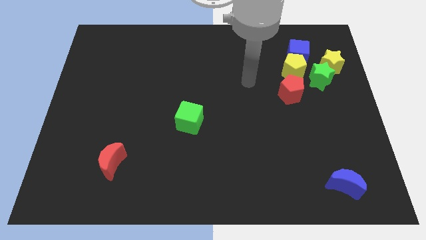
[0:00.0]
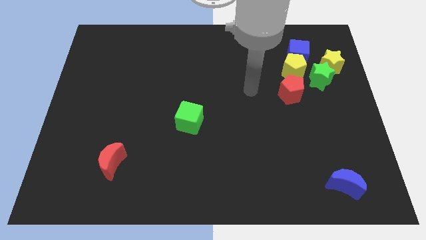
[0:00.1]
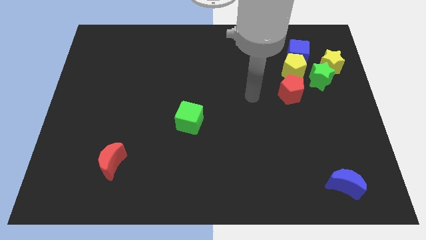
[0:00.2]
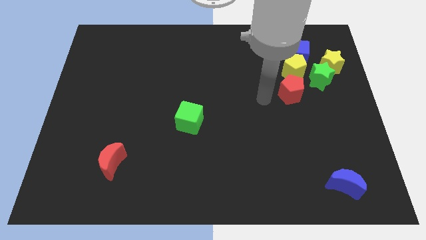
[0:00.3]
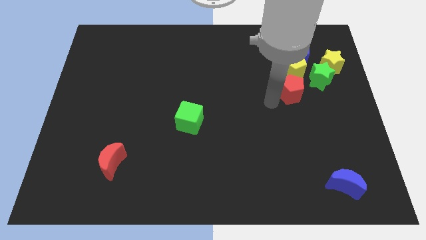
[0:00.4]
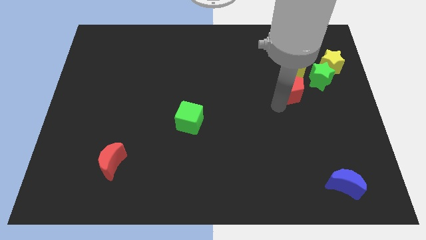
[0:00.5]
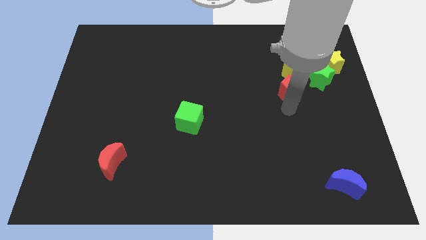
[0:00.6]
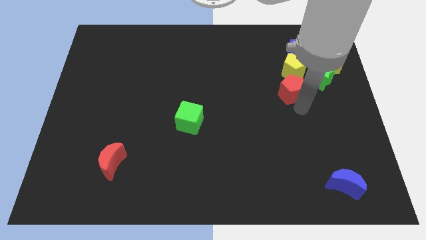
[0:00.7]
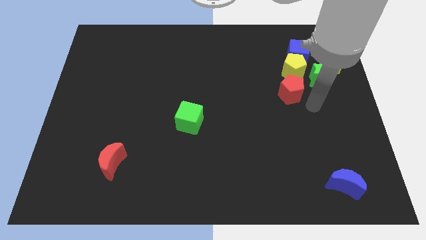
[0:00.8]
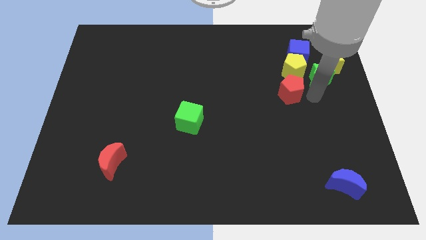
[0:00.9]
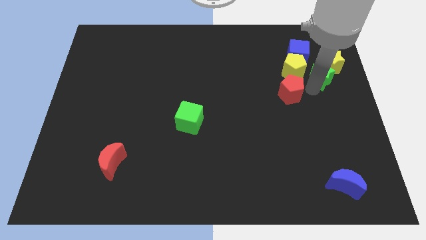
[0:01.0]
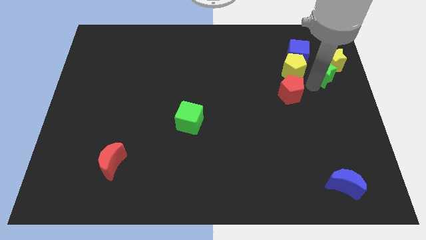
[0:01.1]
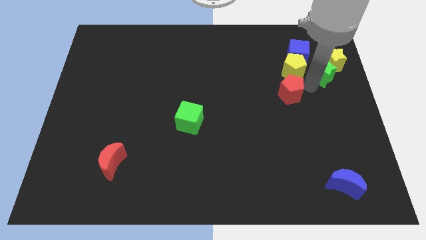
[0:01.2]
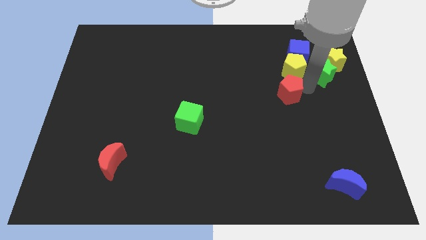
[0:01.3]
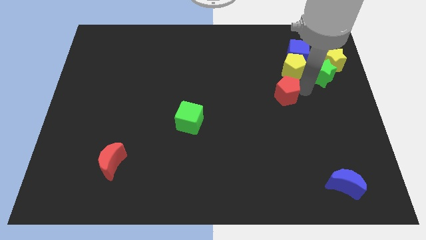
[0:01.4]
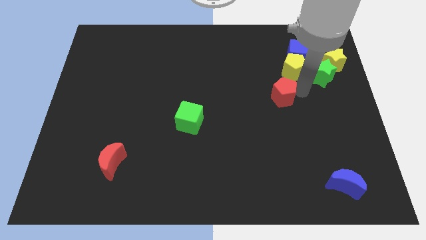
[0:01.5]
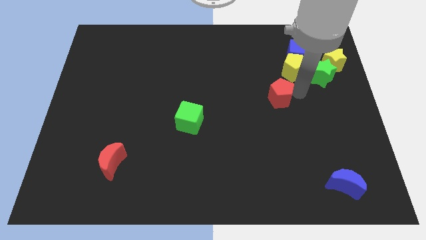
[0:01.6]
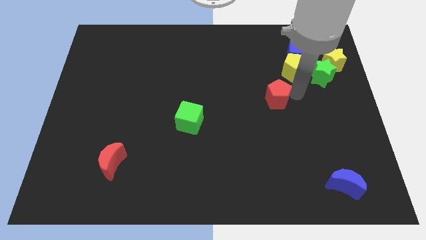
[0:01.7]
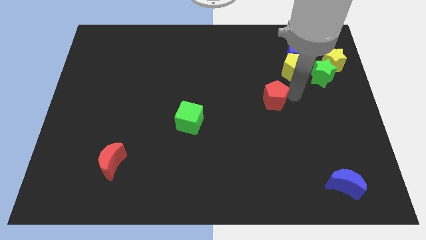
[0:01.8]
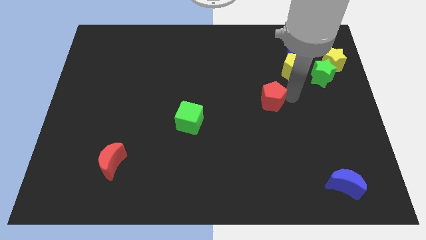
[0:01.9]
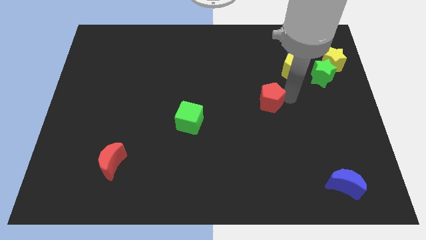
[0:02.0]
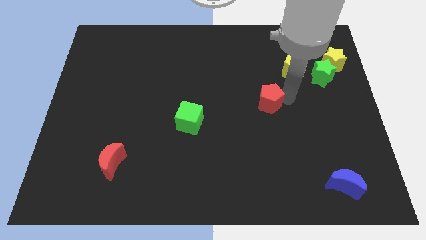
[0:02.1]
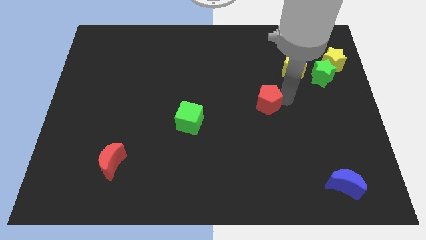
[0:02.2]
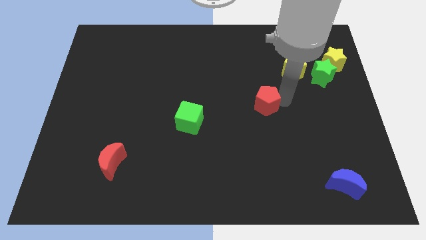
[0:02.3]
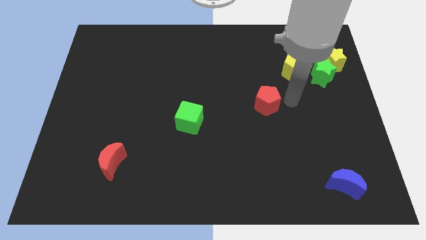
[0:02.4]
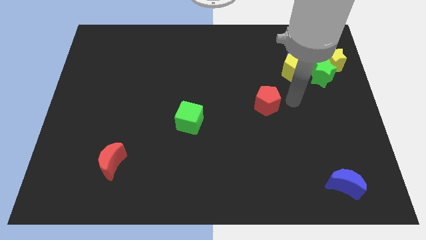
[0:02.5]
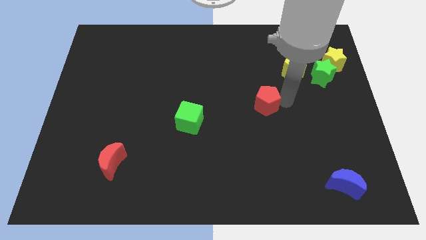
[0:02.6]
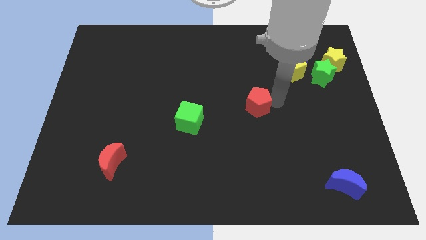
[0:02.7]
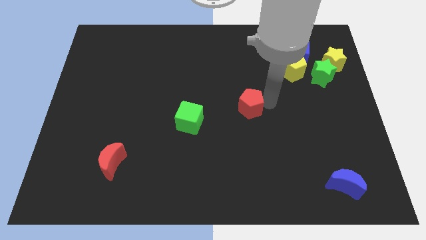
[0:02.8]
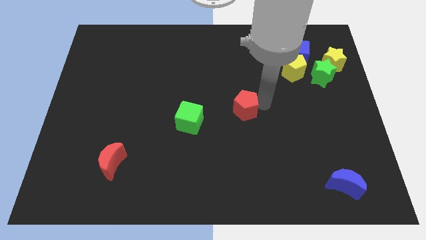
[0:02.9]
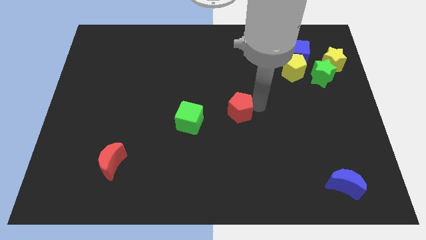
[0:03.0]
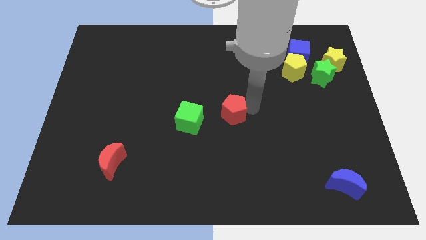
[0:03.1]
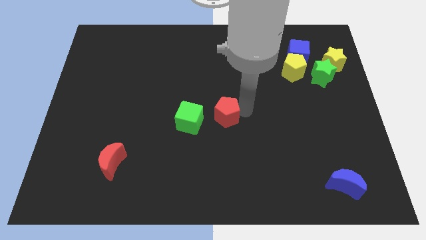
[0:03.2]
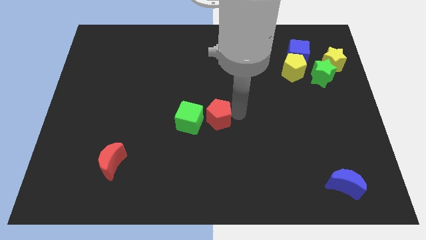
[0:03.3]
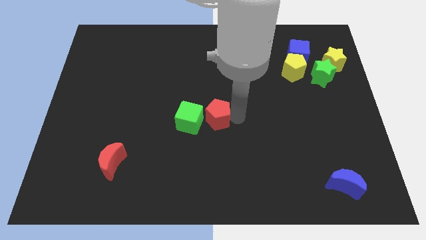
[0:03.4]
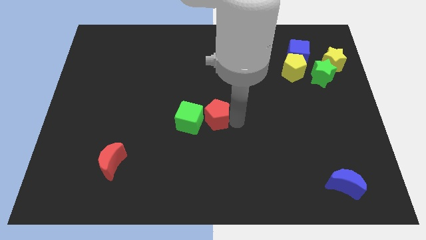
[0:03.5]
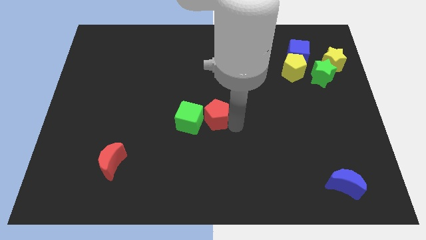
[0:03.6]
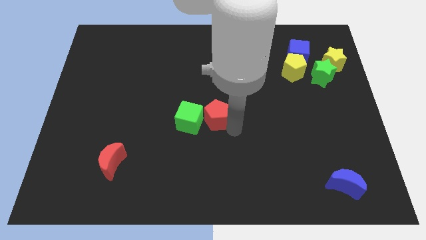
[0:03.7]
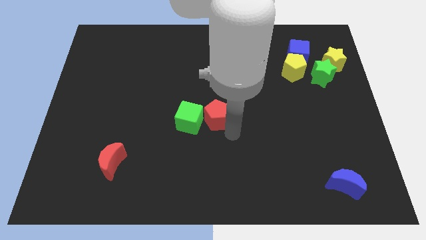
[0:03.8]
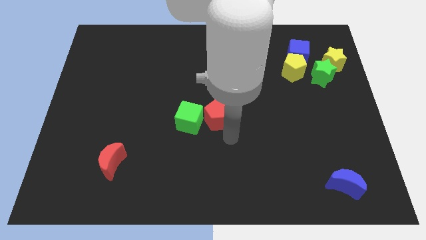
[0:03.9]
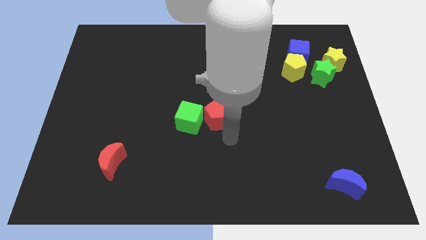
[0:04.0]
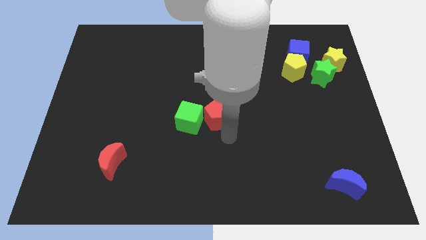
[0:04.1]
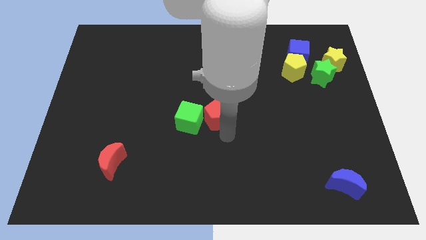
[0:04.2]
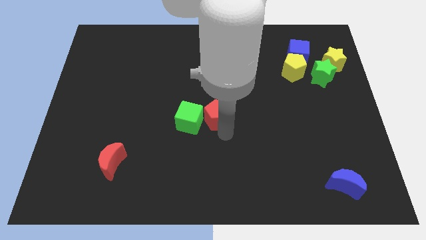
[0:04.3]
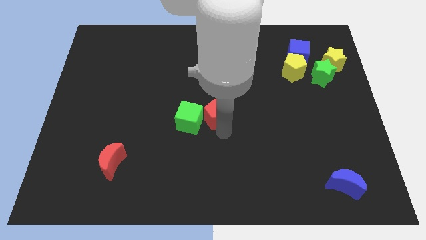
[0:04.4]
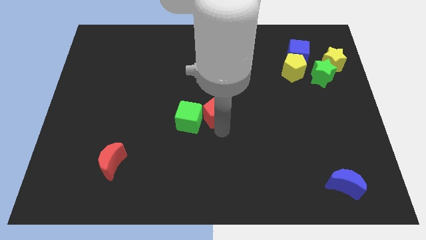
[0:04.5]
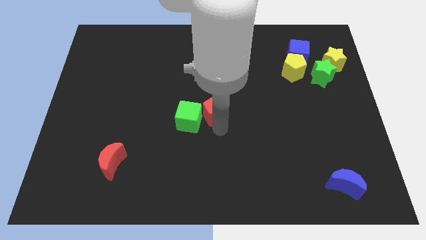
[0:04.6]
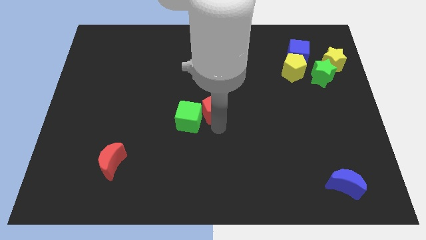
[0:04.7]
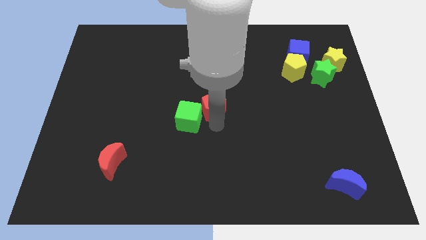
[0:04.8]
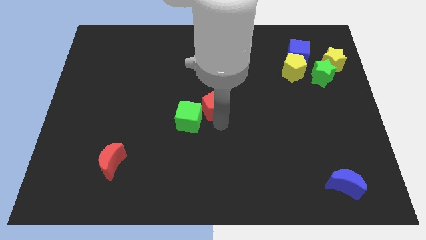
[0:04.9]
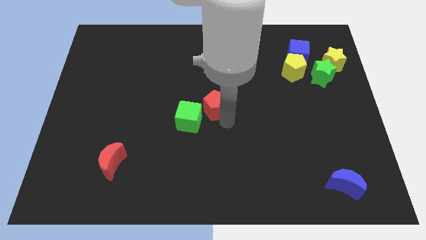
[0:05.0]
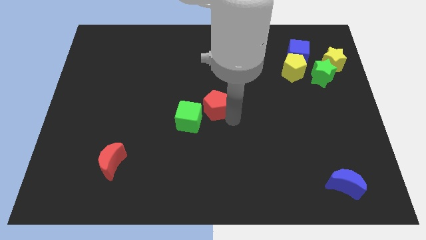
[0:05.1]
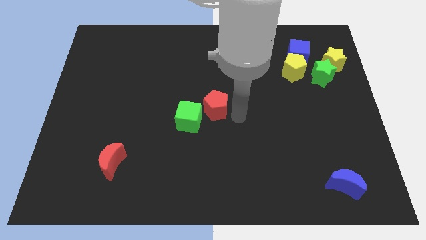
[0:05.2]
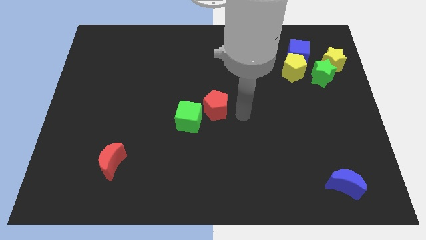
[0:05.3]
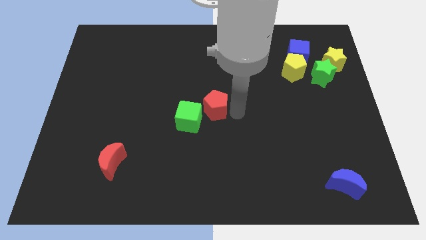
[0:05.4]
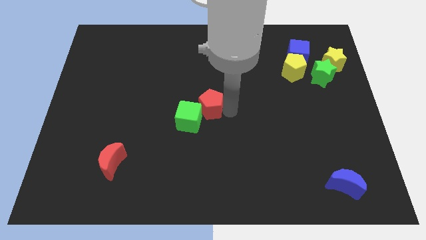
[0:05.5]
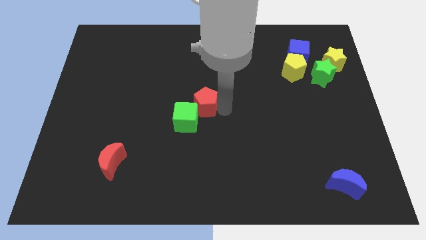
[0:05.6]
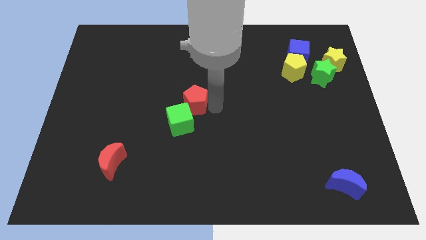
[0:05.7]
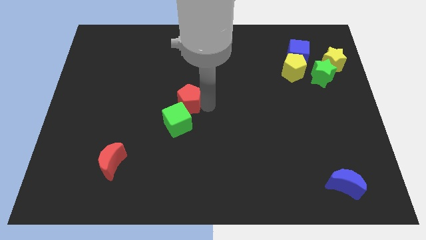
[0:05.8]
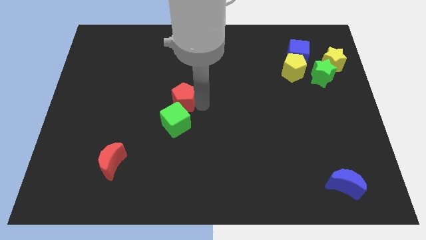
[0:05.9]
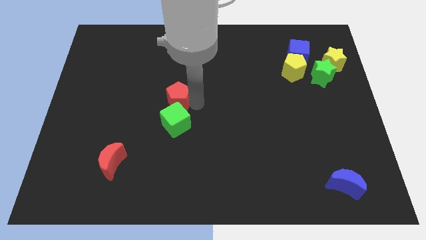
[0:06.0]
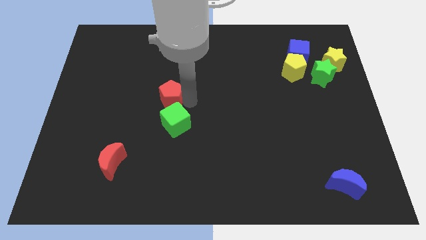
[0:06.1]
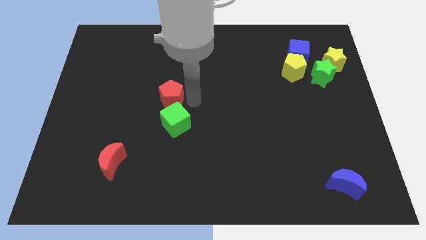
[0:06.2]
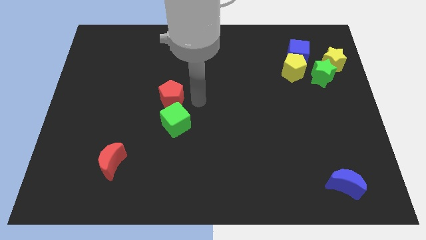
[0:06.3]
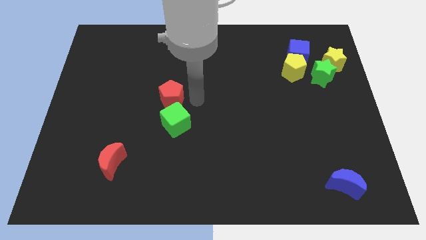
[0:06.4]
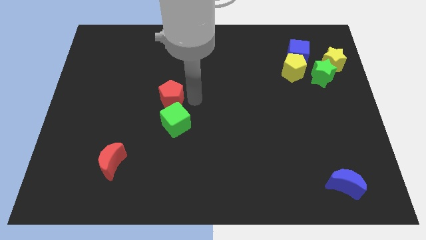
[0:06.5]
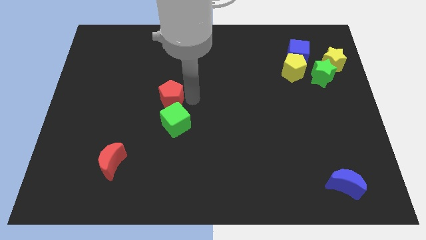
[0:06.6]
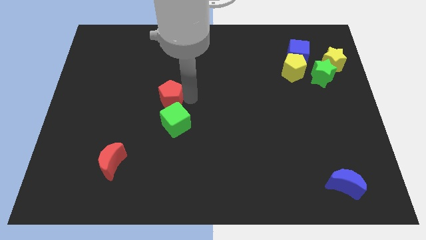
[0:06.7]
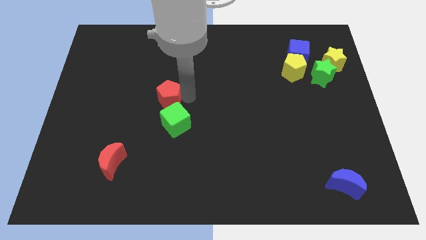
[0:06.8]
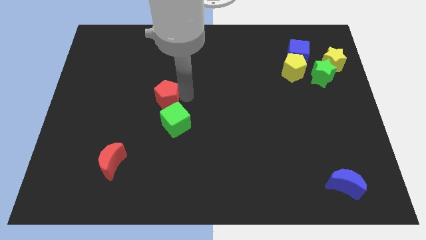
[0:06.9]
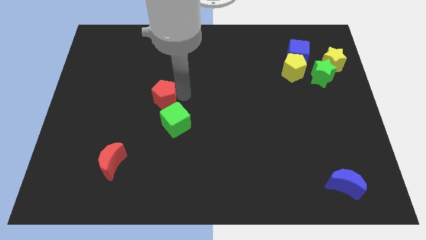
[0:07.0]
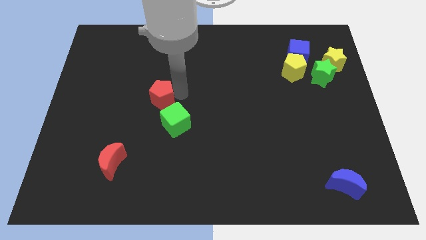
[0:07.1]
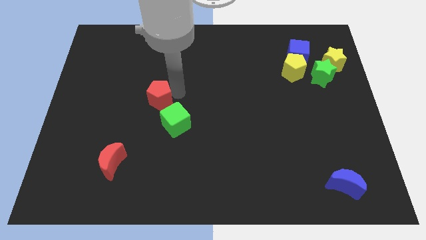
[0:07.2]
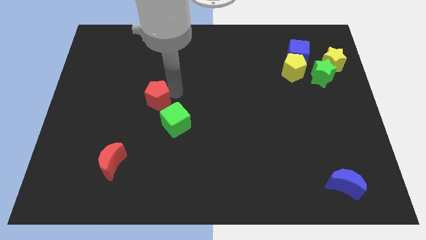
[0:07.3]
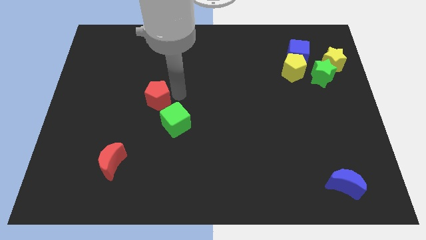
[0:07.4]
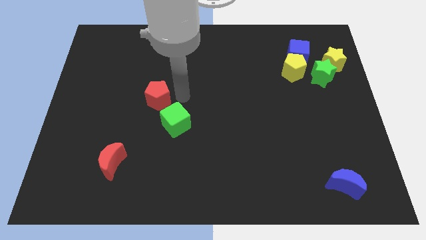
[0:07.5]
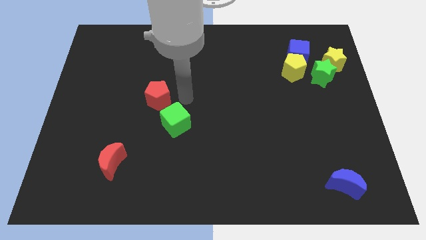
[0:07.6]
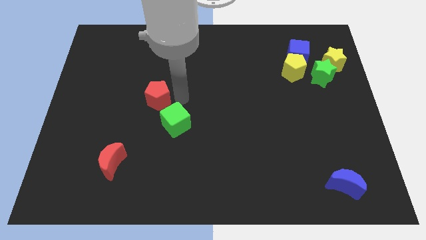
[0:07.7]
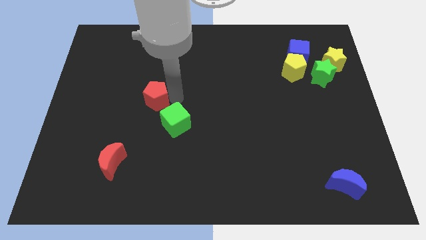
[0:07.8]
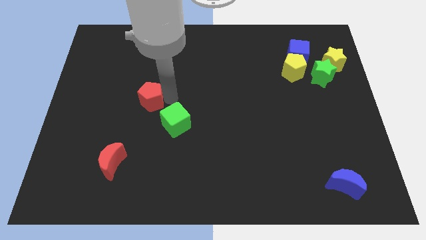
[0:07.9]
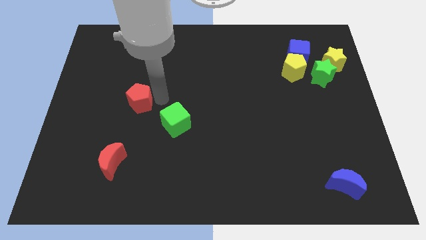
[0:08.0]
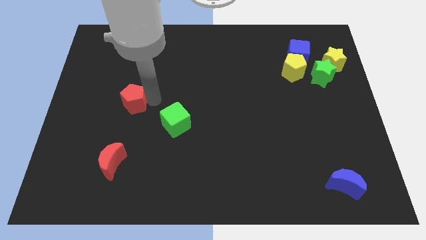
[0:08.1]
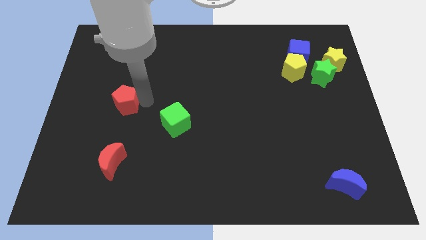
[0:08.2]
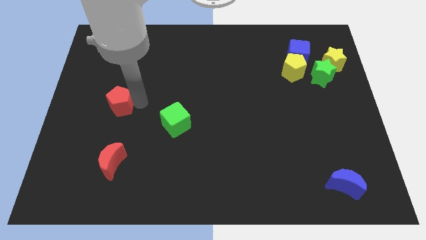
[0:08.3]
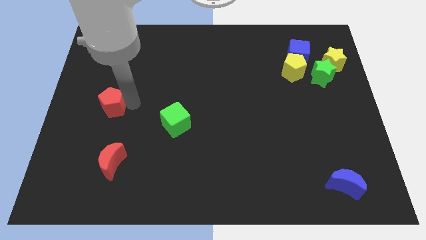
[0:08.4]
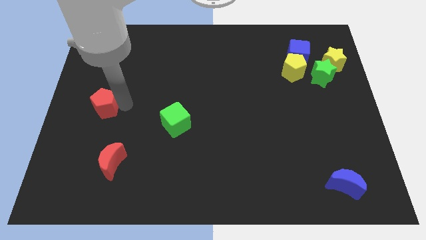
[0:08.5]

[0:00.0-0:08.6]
push the red pentagon to the left side
